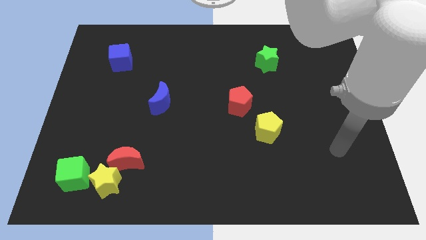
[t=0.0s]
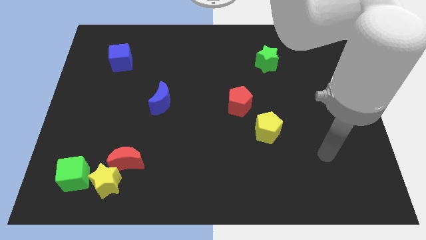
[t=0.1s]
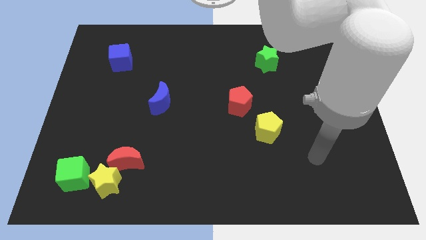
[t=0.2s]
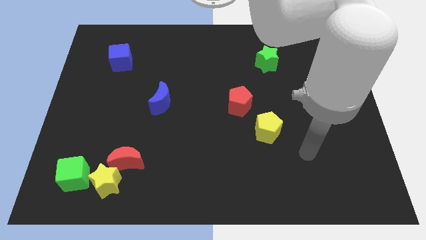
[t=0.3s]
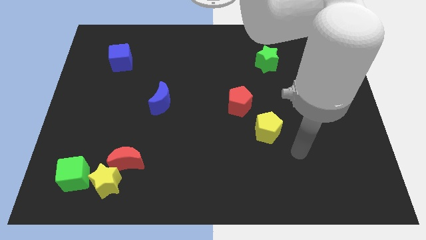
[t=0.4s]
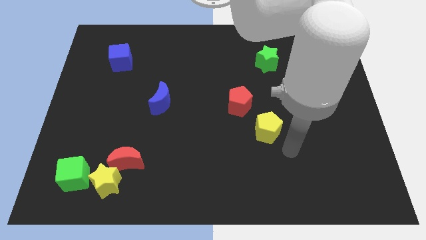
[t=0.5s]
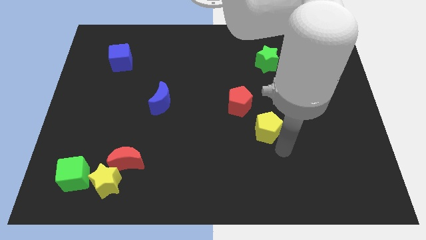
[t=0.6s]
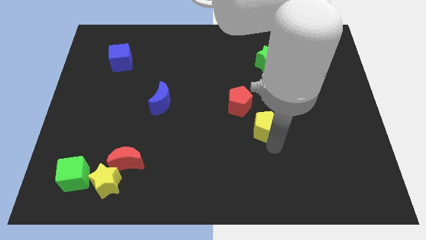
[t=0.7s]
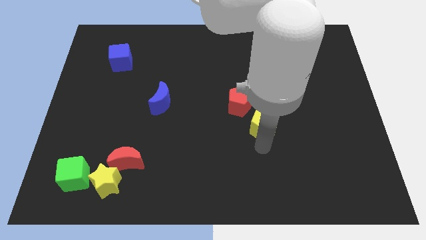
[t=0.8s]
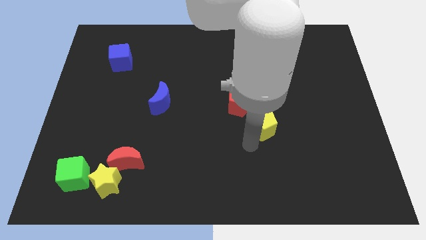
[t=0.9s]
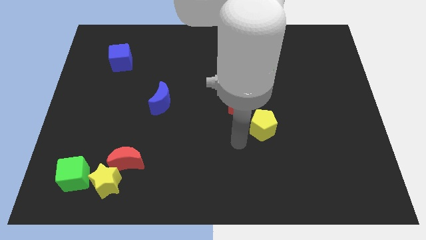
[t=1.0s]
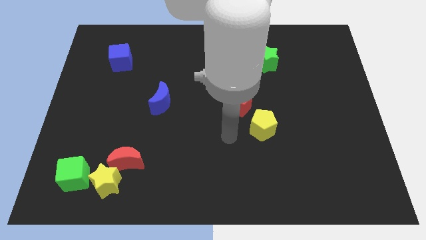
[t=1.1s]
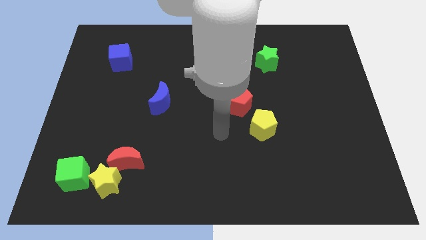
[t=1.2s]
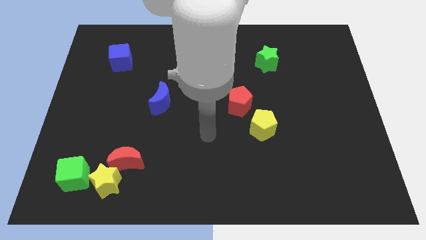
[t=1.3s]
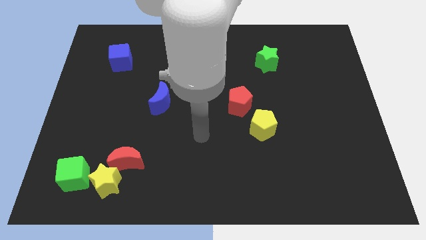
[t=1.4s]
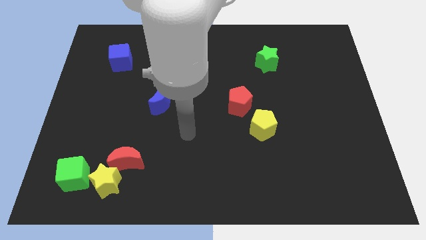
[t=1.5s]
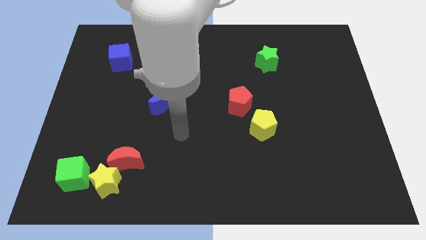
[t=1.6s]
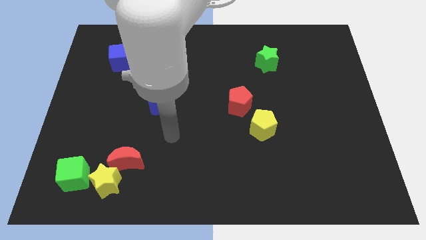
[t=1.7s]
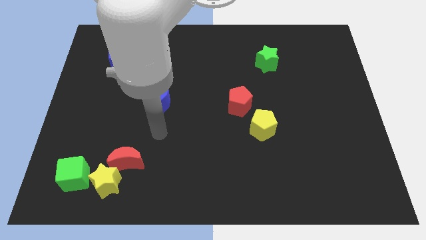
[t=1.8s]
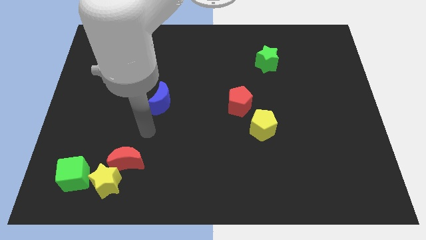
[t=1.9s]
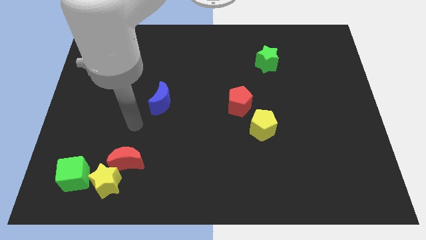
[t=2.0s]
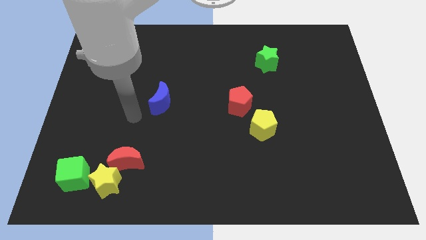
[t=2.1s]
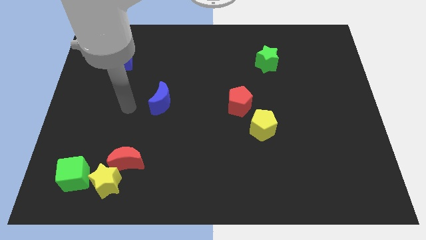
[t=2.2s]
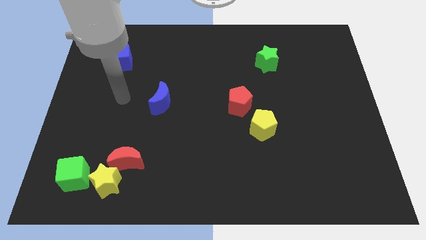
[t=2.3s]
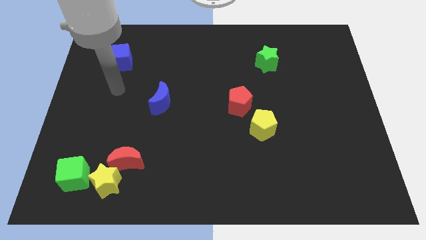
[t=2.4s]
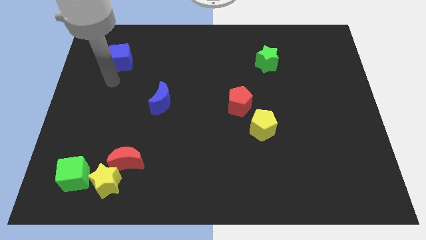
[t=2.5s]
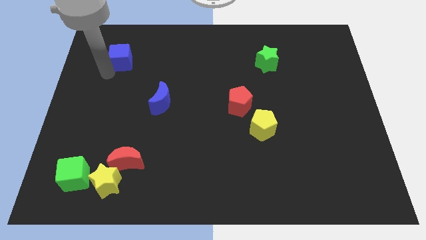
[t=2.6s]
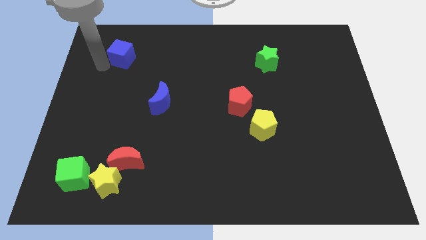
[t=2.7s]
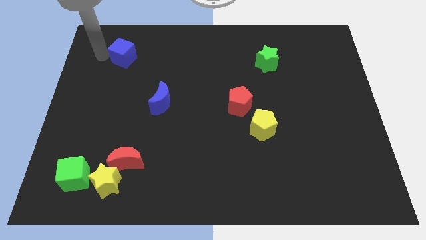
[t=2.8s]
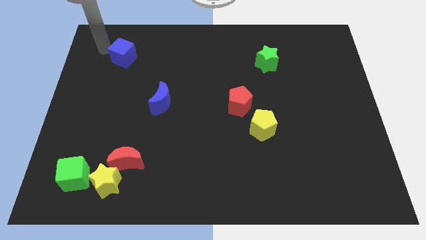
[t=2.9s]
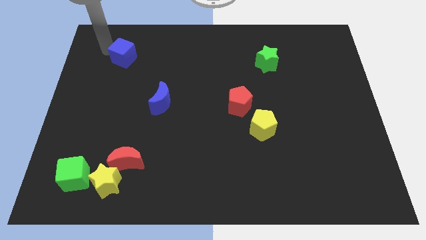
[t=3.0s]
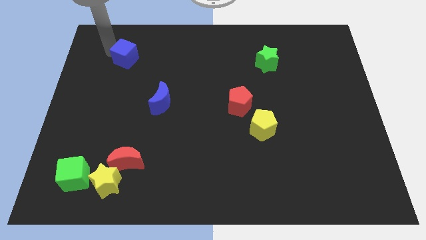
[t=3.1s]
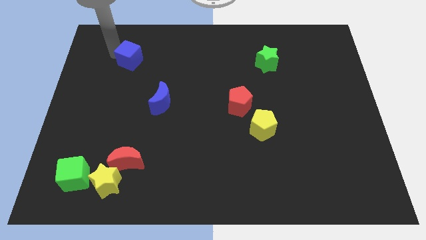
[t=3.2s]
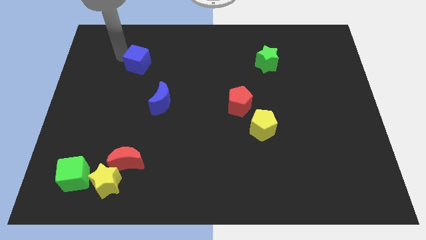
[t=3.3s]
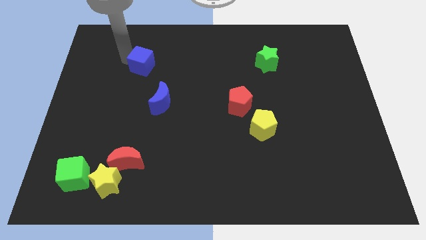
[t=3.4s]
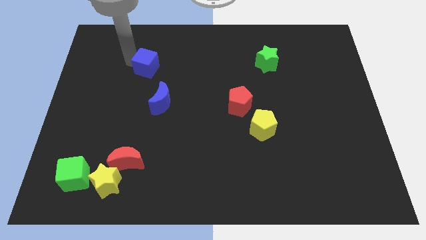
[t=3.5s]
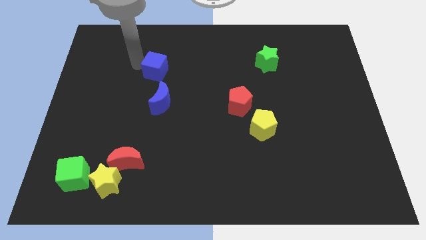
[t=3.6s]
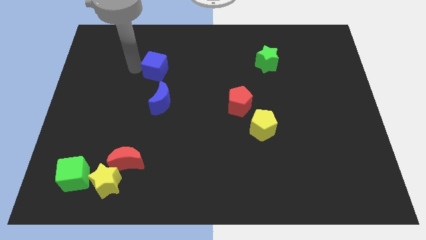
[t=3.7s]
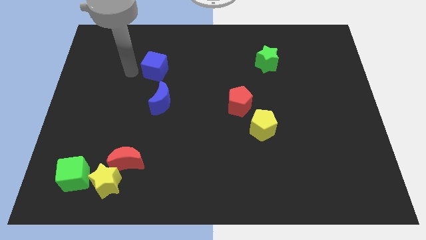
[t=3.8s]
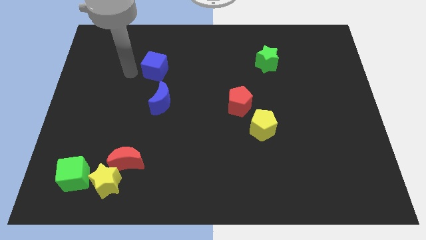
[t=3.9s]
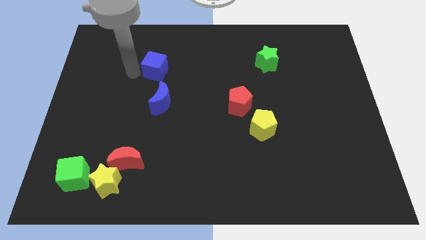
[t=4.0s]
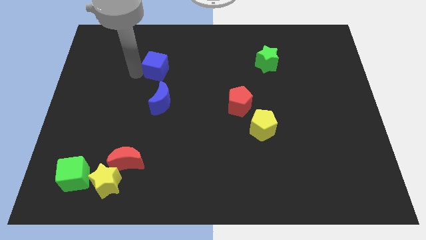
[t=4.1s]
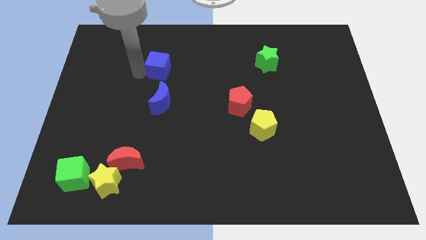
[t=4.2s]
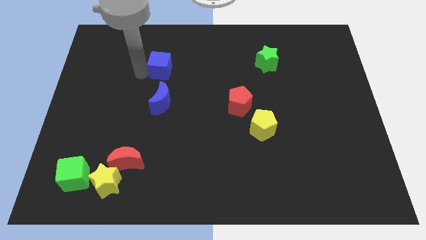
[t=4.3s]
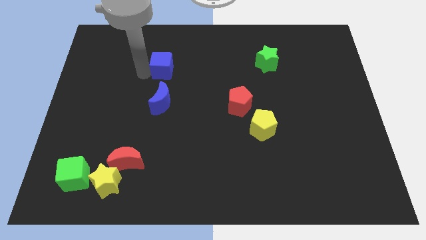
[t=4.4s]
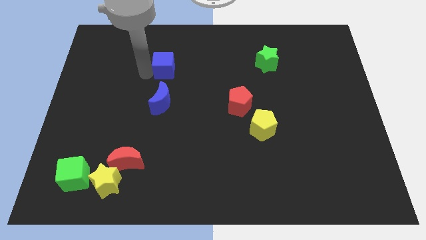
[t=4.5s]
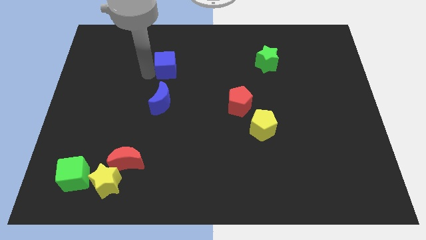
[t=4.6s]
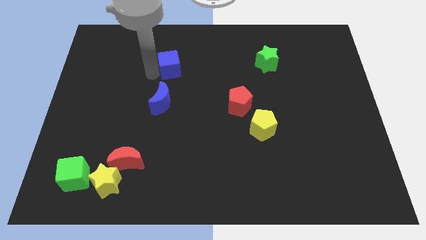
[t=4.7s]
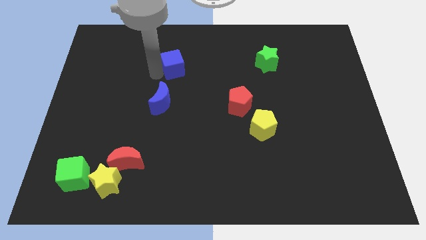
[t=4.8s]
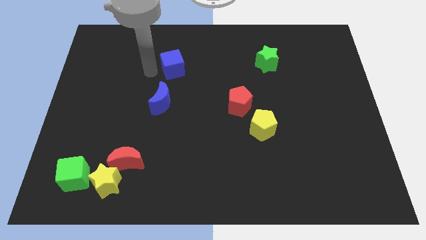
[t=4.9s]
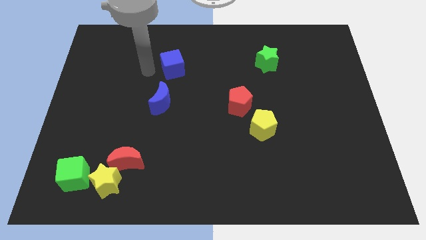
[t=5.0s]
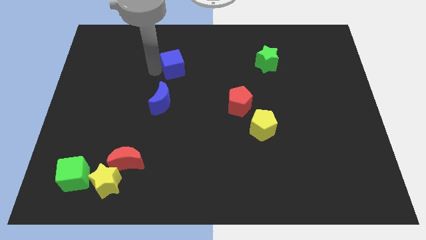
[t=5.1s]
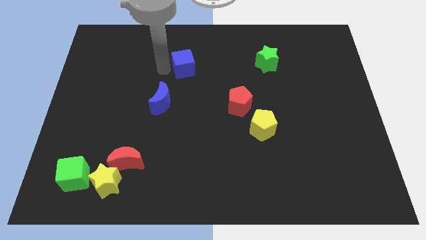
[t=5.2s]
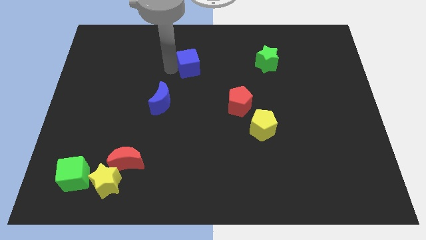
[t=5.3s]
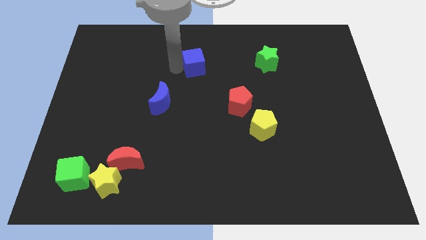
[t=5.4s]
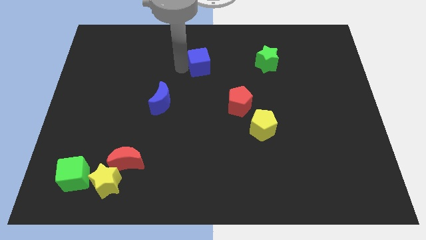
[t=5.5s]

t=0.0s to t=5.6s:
move the blue cube to the right

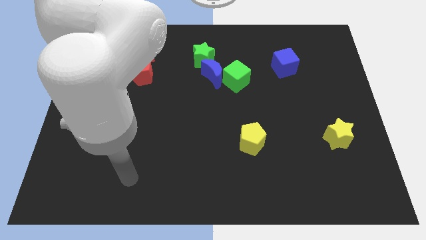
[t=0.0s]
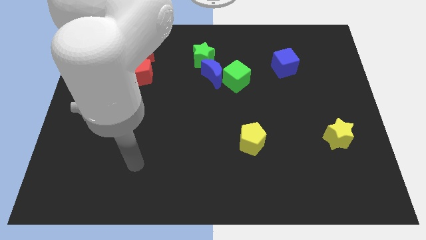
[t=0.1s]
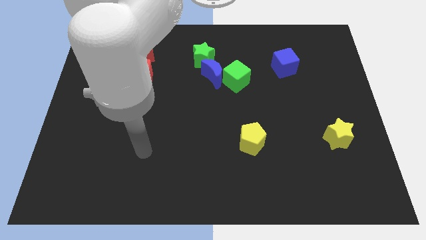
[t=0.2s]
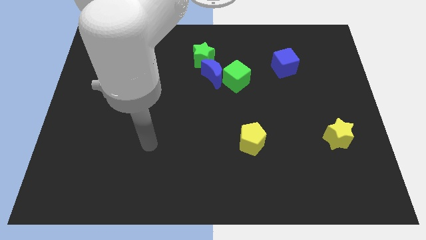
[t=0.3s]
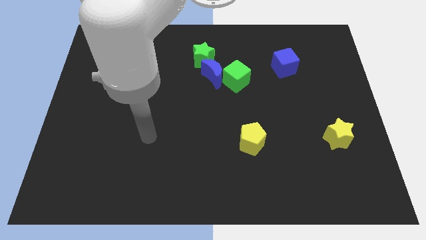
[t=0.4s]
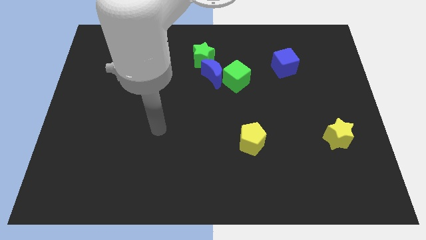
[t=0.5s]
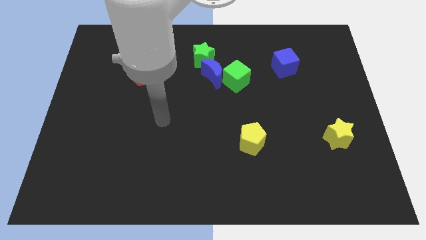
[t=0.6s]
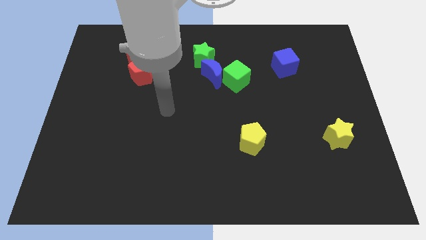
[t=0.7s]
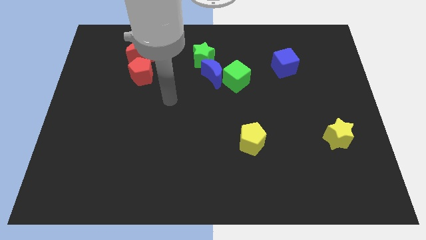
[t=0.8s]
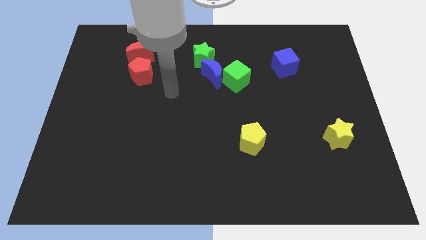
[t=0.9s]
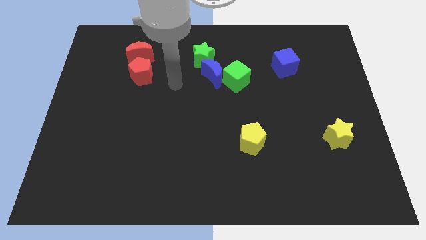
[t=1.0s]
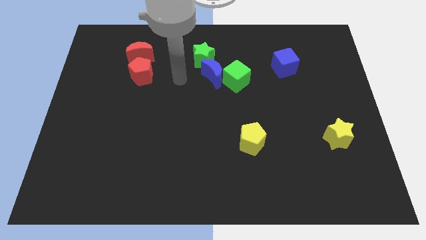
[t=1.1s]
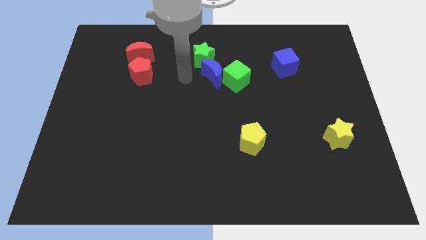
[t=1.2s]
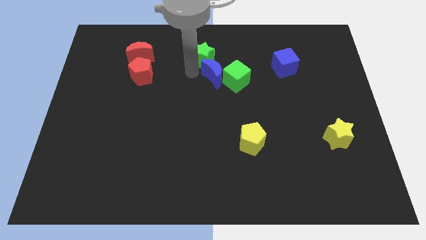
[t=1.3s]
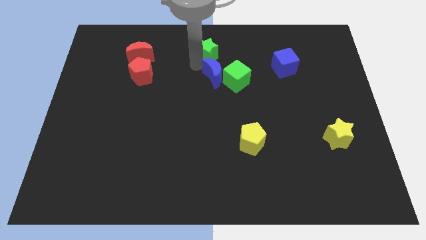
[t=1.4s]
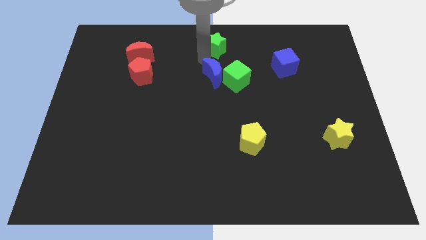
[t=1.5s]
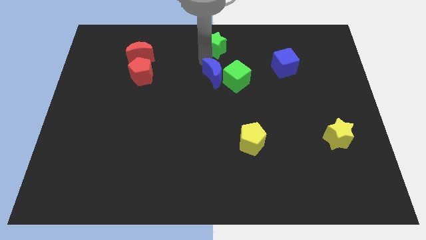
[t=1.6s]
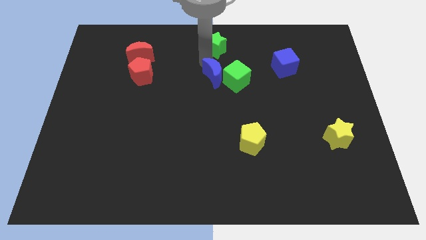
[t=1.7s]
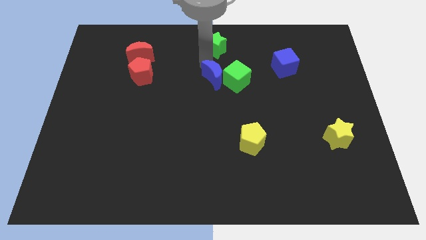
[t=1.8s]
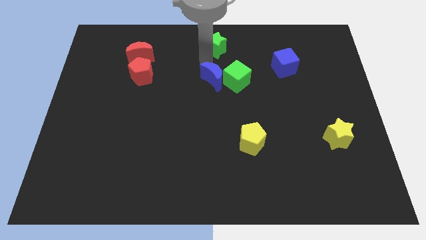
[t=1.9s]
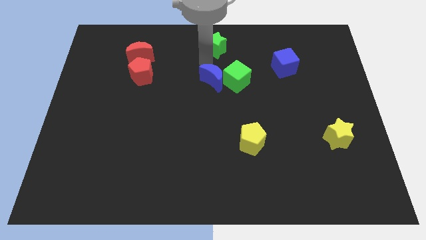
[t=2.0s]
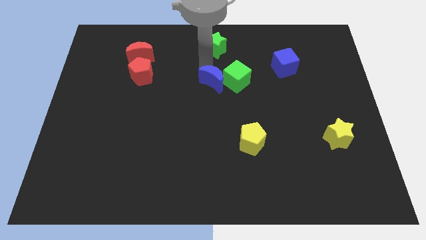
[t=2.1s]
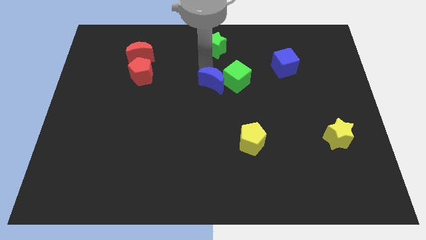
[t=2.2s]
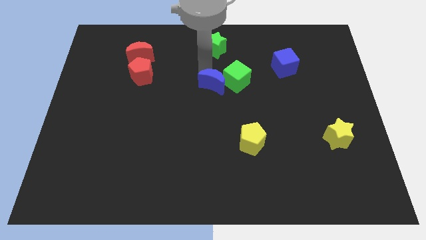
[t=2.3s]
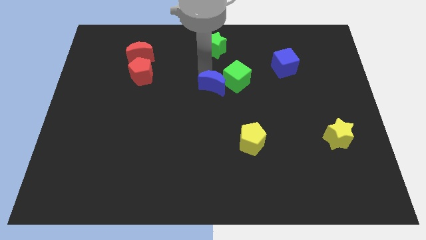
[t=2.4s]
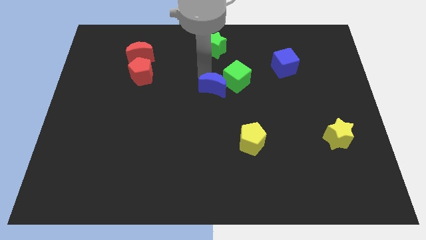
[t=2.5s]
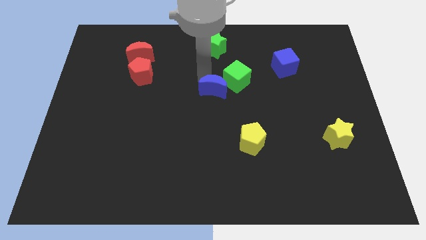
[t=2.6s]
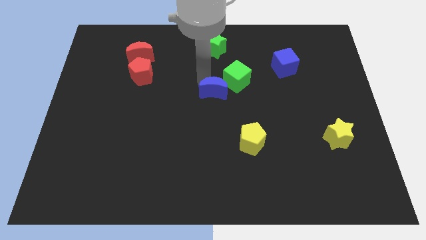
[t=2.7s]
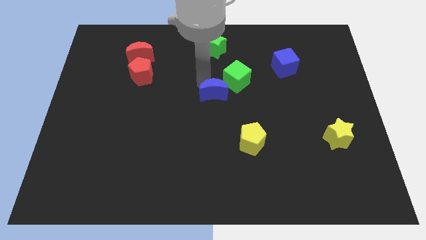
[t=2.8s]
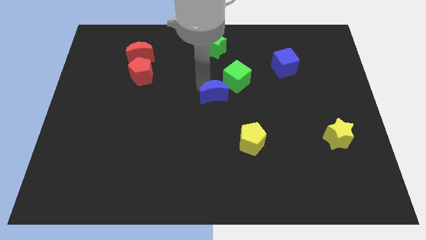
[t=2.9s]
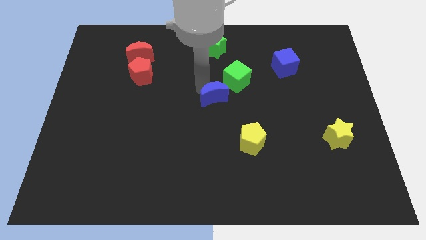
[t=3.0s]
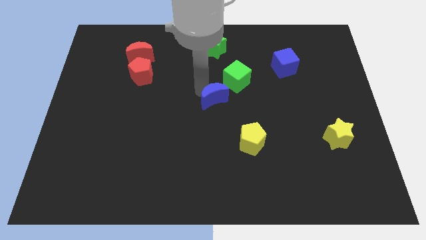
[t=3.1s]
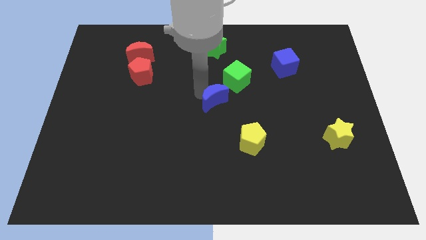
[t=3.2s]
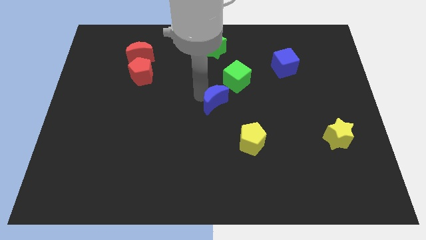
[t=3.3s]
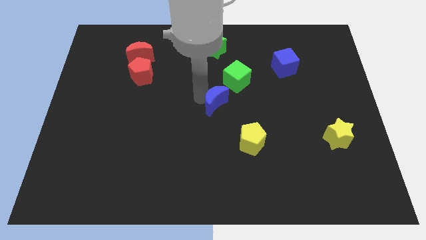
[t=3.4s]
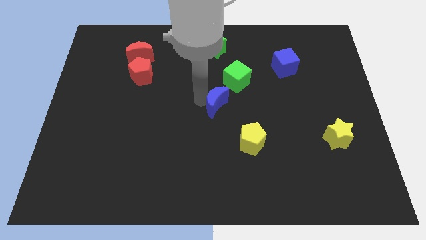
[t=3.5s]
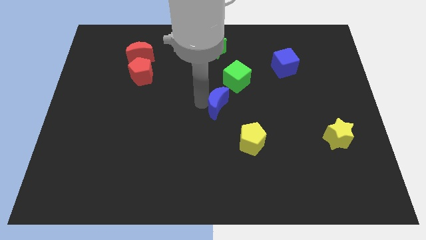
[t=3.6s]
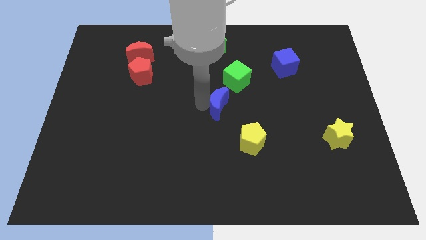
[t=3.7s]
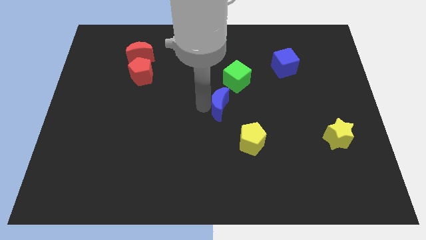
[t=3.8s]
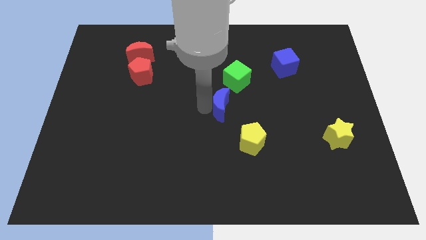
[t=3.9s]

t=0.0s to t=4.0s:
push the blue moon down and to the right somewhat
